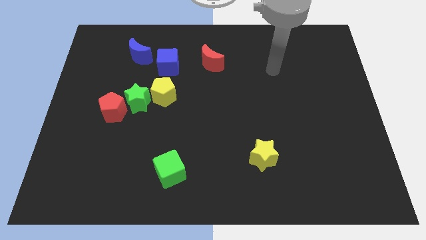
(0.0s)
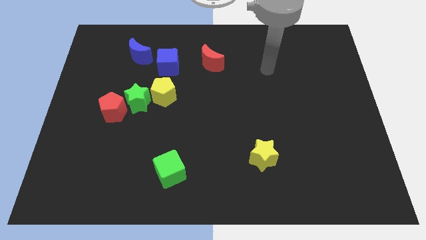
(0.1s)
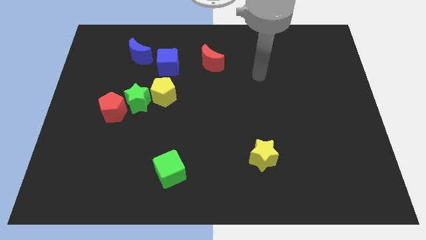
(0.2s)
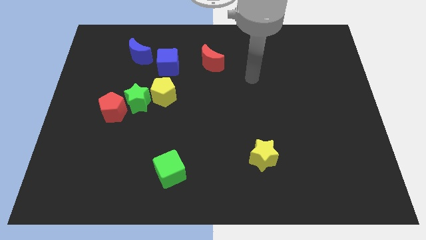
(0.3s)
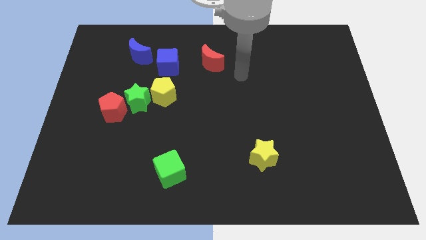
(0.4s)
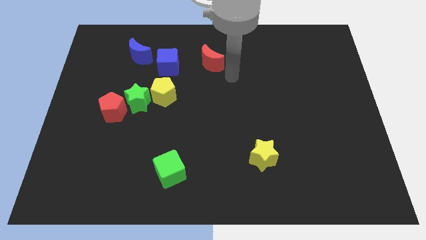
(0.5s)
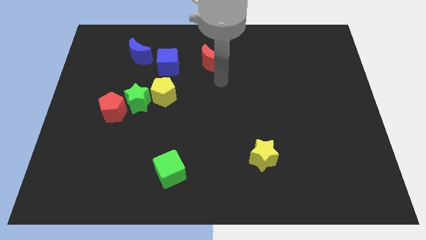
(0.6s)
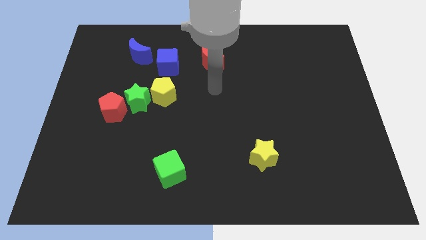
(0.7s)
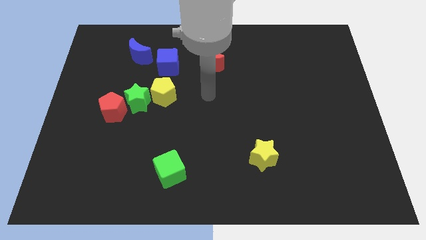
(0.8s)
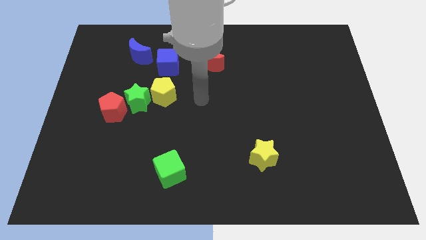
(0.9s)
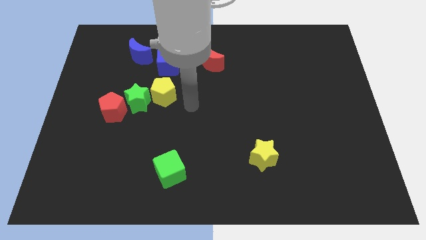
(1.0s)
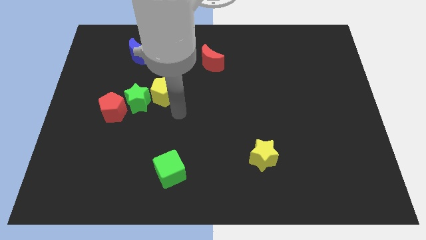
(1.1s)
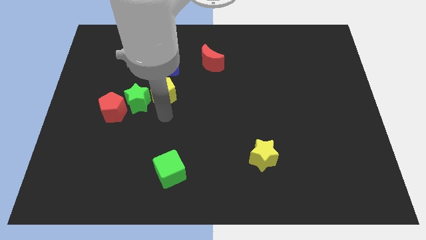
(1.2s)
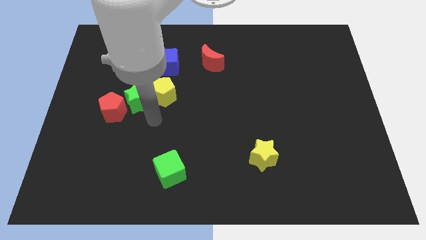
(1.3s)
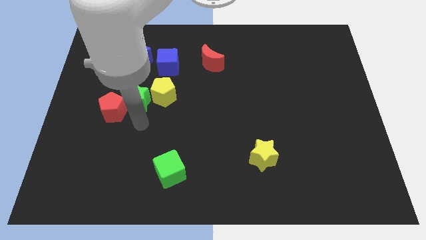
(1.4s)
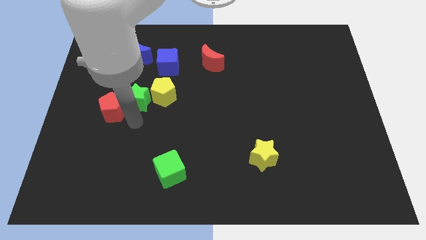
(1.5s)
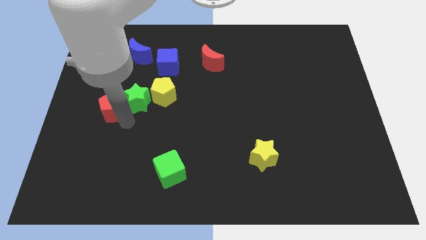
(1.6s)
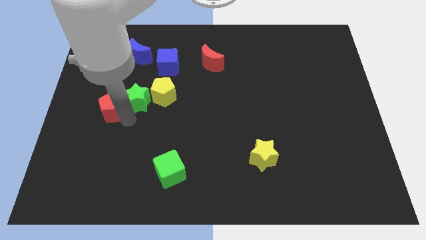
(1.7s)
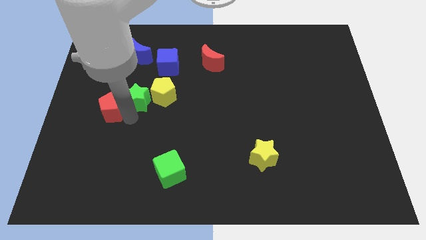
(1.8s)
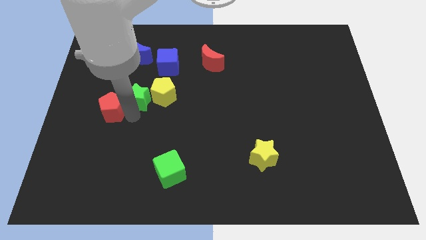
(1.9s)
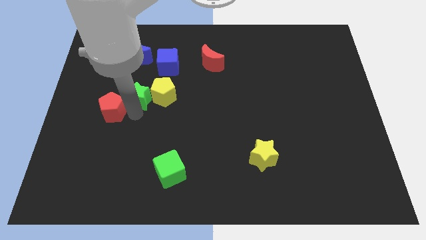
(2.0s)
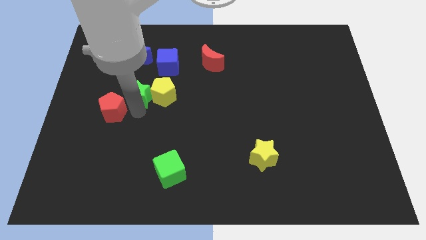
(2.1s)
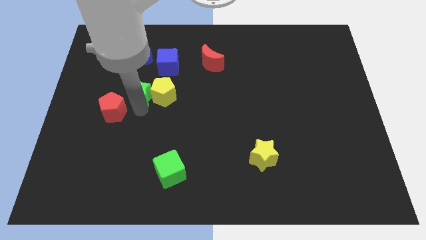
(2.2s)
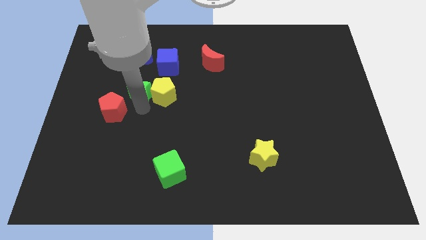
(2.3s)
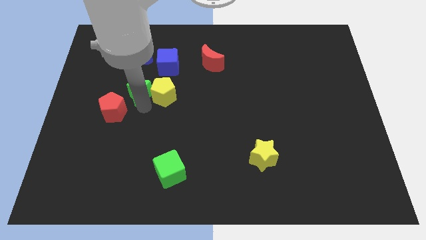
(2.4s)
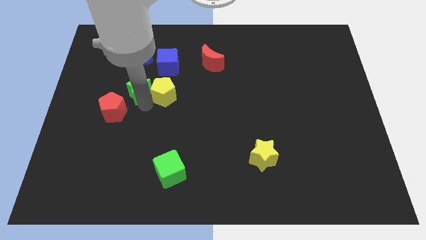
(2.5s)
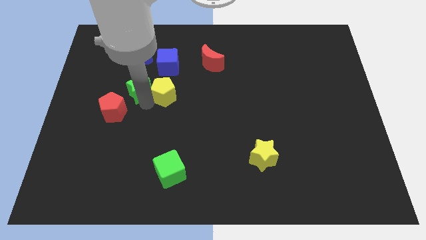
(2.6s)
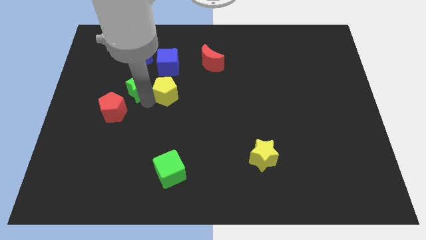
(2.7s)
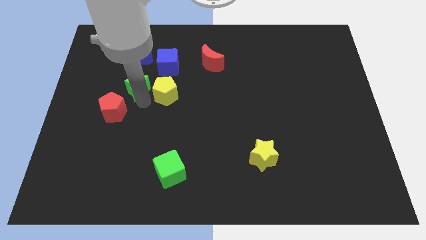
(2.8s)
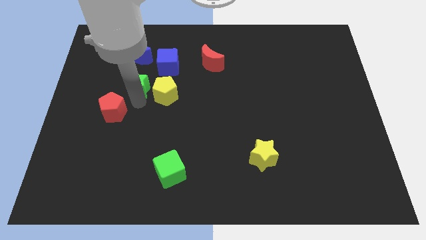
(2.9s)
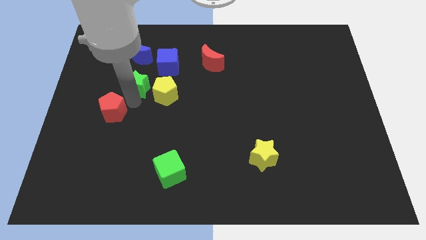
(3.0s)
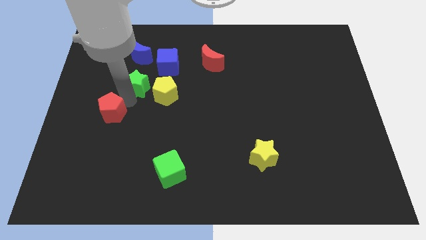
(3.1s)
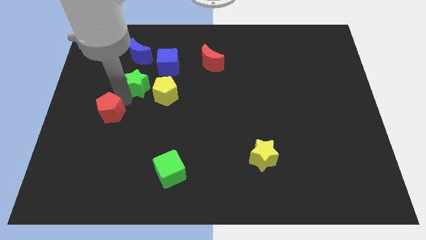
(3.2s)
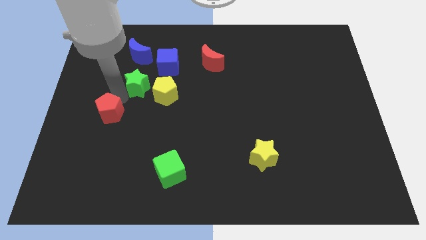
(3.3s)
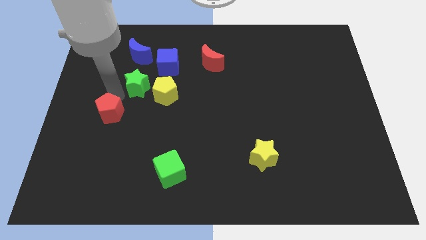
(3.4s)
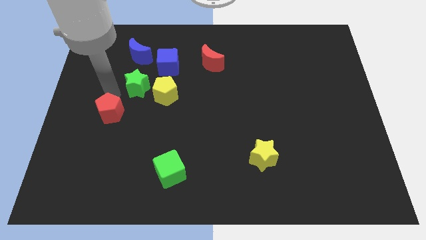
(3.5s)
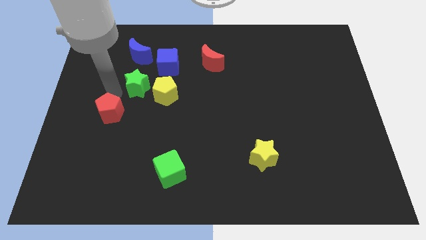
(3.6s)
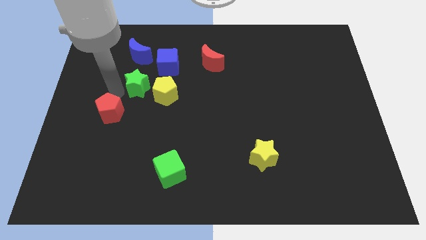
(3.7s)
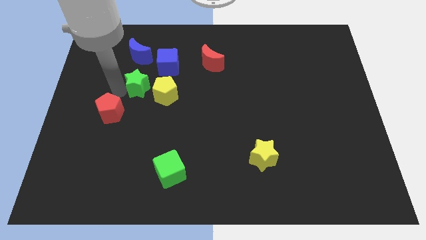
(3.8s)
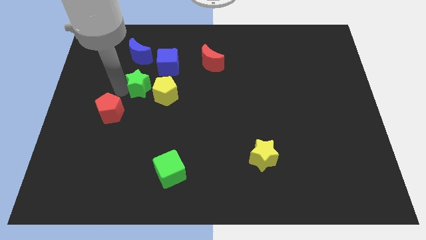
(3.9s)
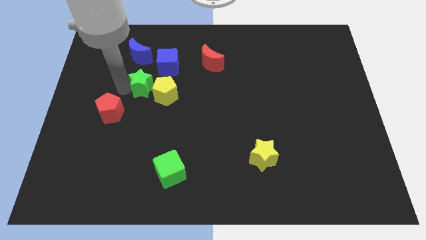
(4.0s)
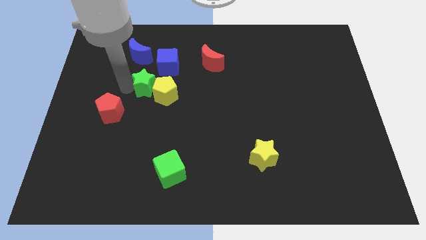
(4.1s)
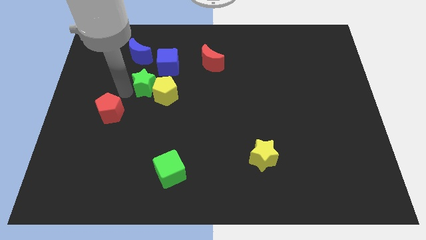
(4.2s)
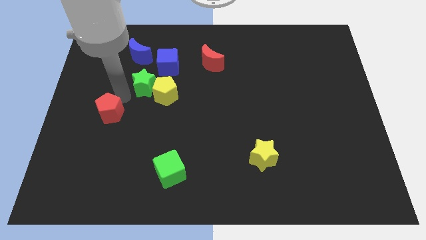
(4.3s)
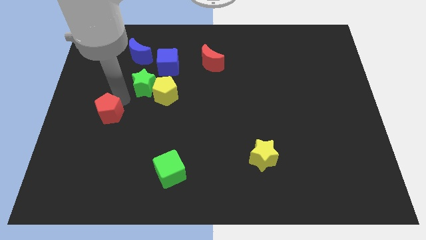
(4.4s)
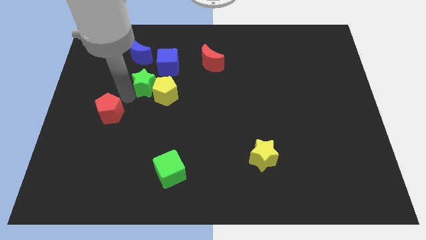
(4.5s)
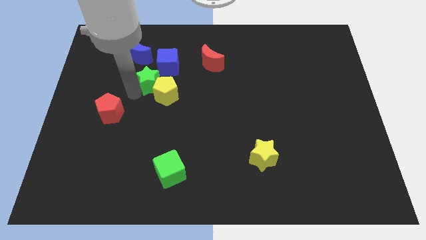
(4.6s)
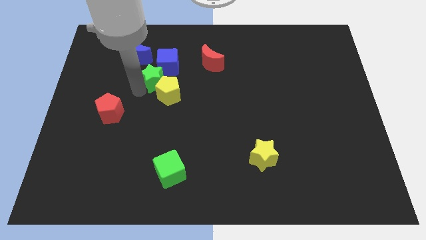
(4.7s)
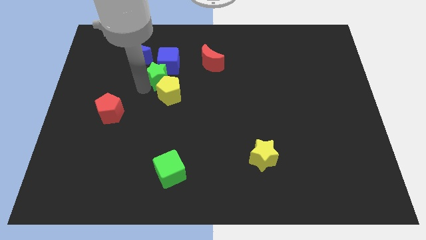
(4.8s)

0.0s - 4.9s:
push the green star next to the blue cube

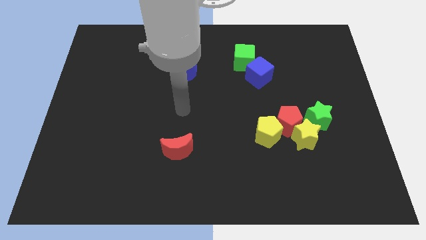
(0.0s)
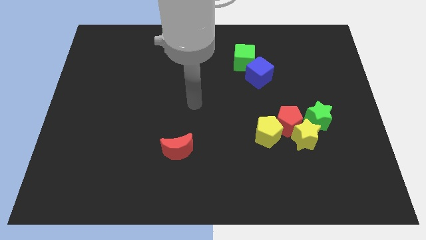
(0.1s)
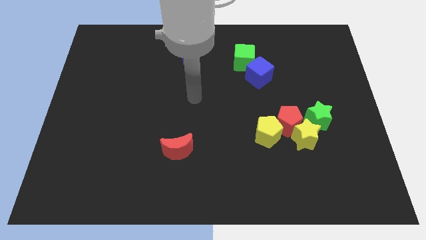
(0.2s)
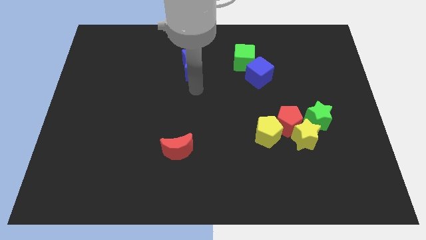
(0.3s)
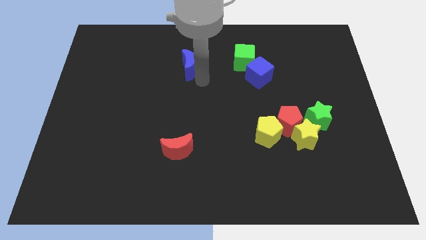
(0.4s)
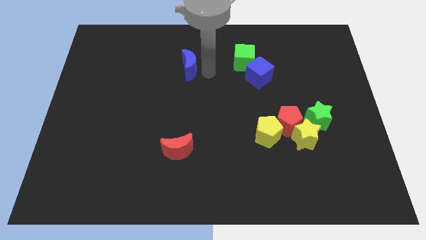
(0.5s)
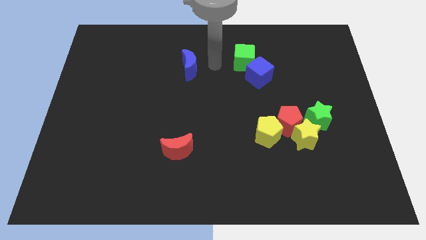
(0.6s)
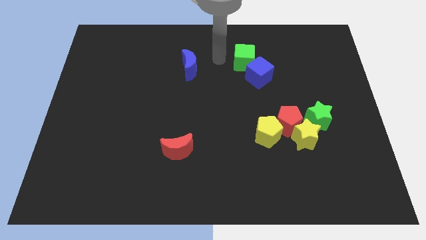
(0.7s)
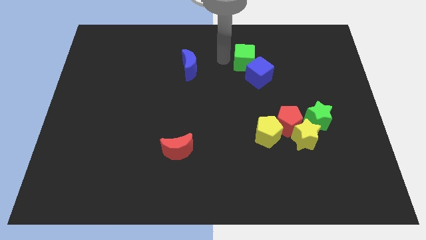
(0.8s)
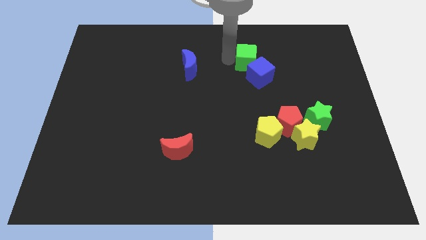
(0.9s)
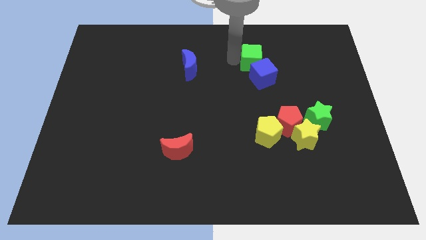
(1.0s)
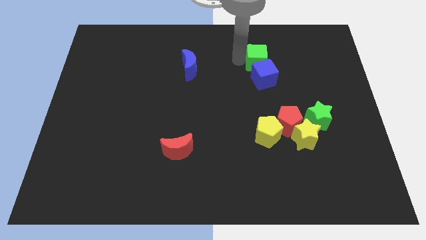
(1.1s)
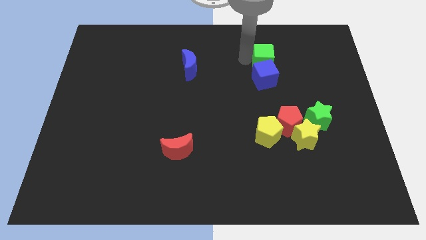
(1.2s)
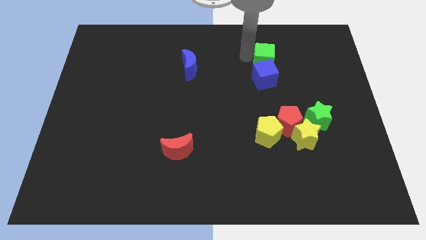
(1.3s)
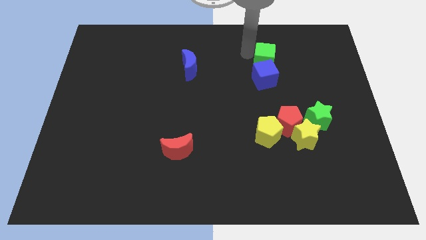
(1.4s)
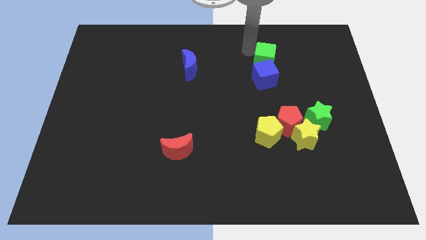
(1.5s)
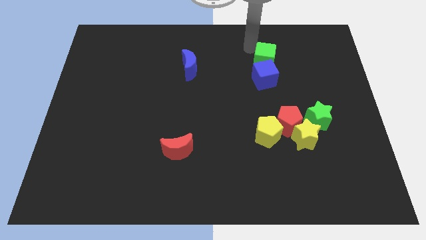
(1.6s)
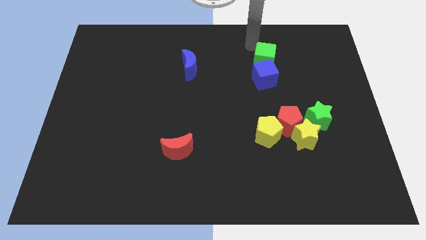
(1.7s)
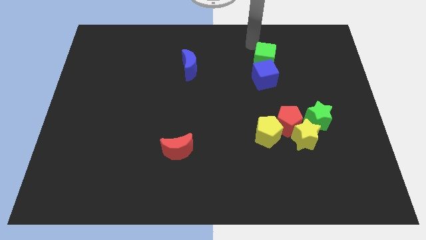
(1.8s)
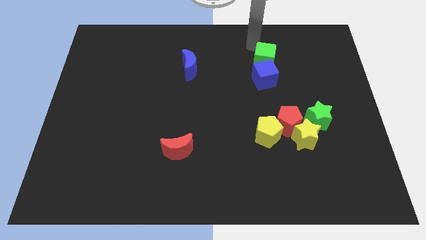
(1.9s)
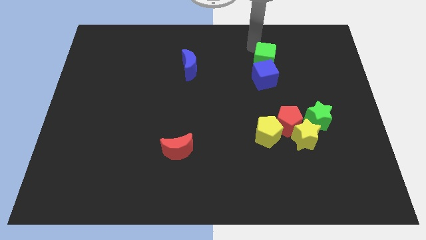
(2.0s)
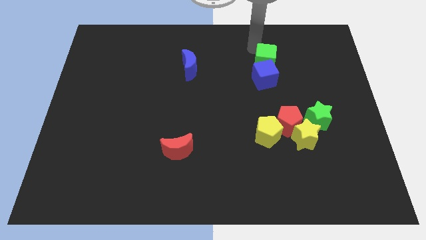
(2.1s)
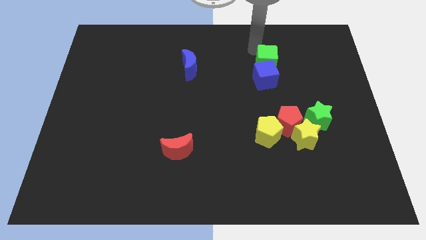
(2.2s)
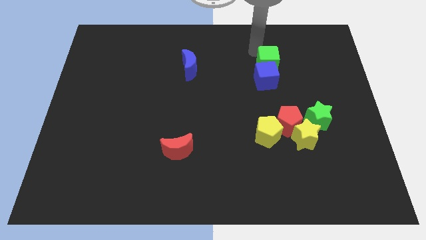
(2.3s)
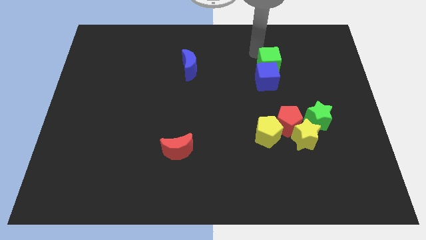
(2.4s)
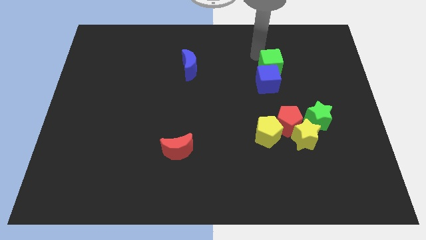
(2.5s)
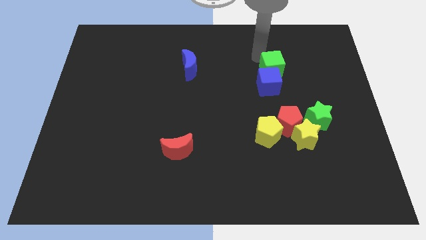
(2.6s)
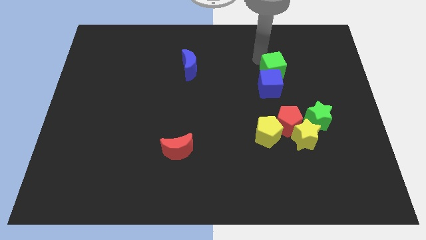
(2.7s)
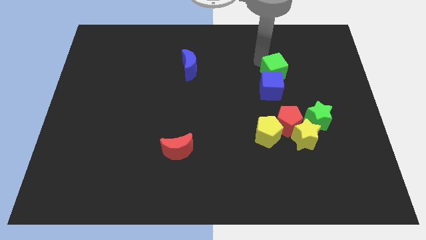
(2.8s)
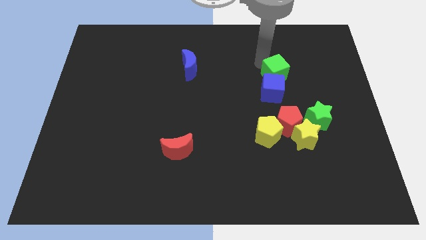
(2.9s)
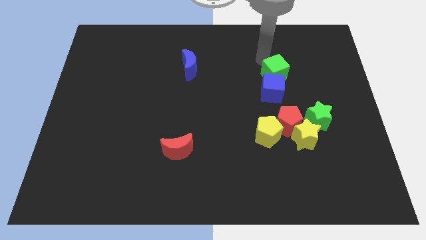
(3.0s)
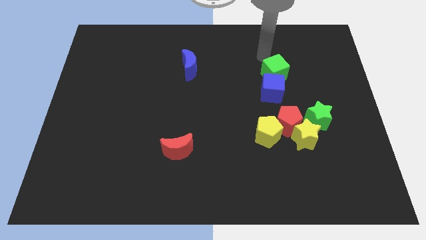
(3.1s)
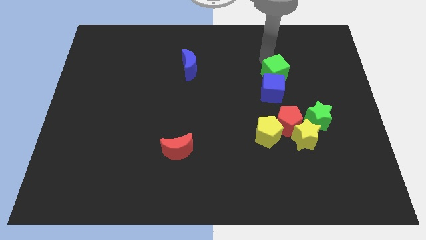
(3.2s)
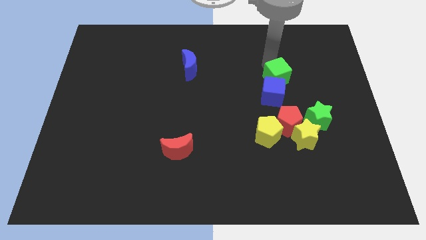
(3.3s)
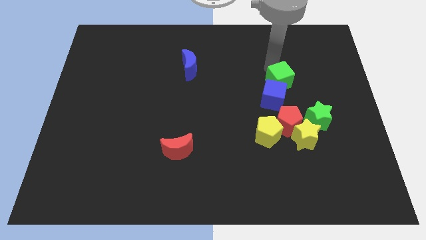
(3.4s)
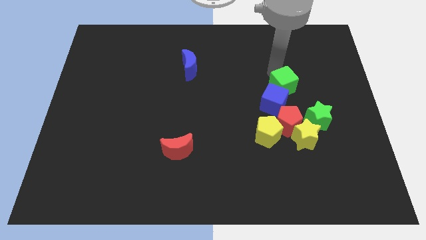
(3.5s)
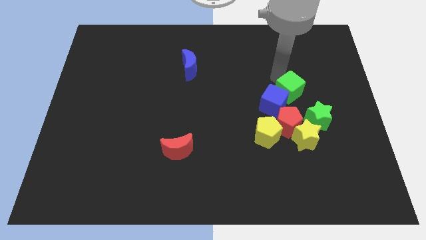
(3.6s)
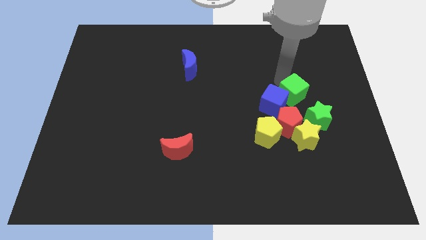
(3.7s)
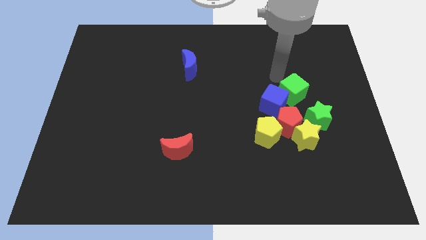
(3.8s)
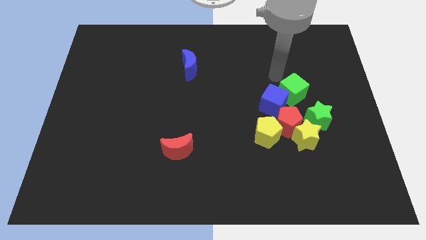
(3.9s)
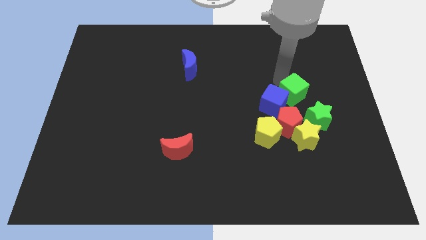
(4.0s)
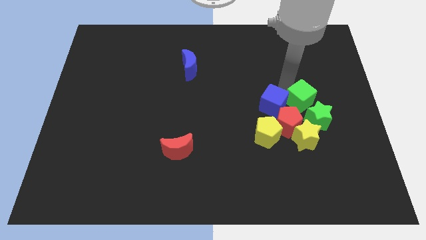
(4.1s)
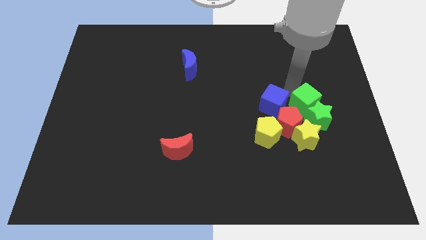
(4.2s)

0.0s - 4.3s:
move the green cube towards the green star
